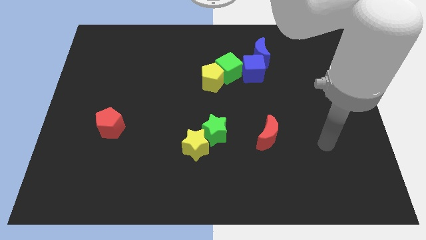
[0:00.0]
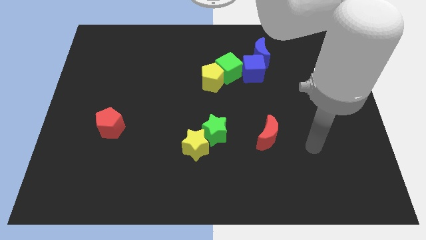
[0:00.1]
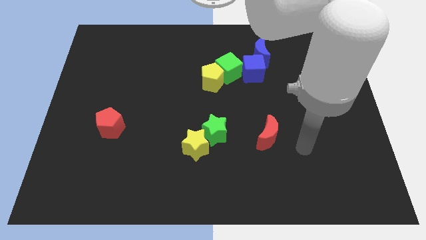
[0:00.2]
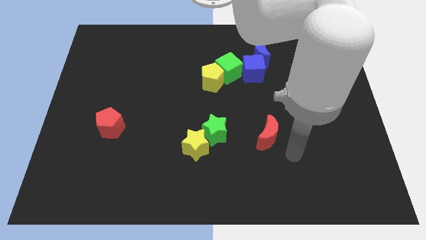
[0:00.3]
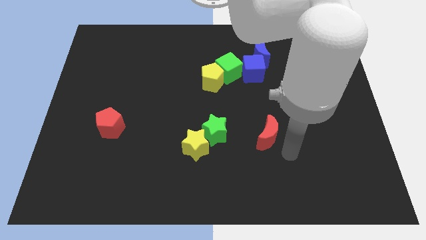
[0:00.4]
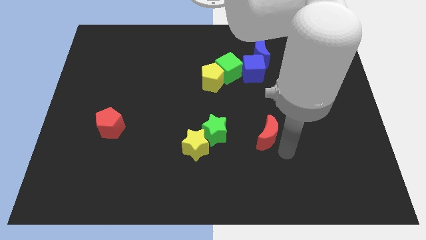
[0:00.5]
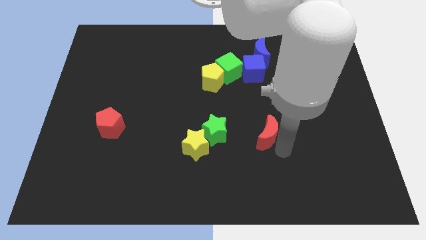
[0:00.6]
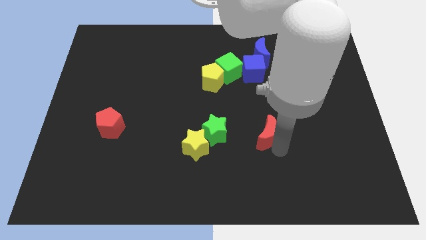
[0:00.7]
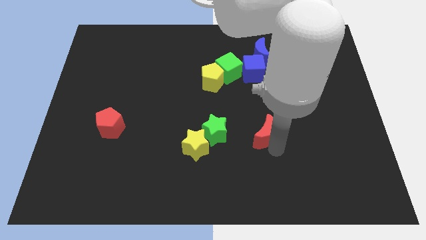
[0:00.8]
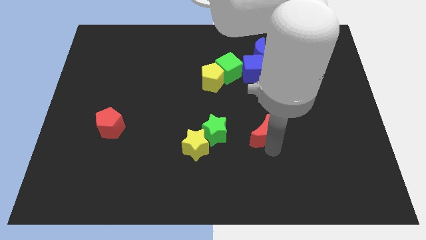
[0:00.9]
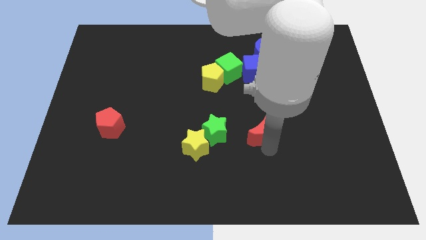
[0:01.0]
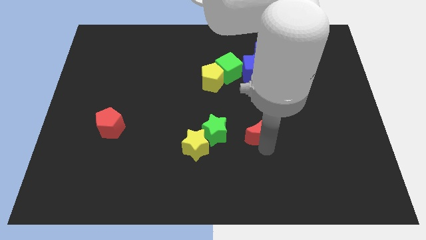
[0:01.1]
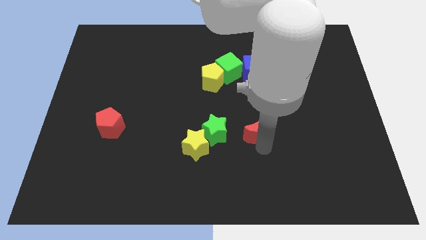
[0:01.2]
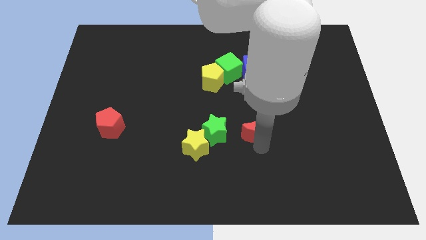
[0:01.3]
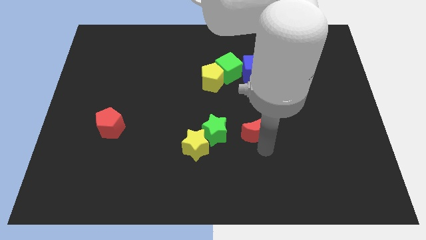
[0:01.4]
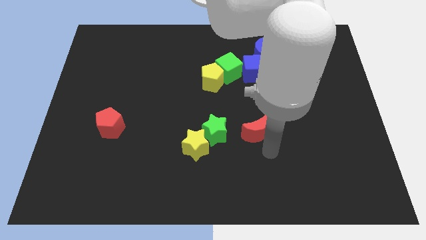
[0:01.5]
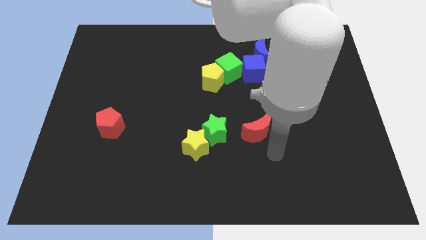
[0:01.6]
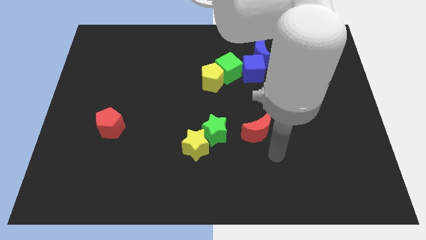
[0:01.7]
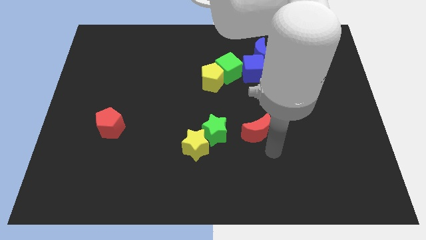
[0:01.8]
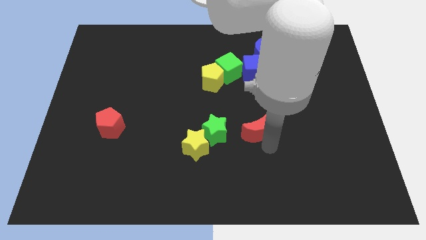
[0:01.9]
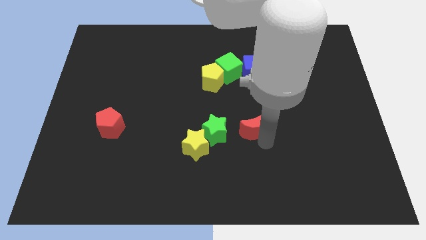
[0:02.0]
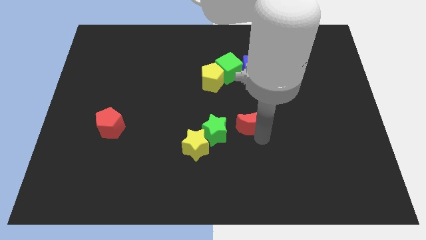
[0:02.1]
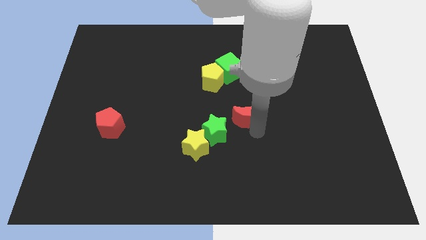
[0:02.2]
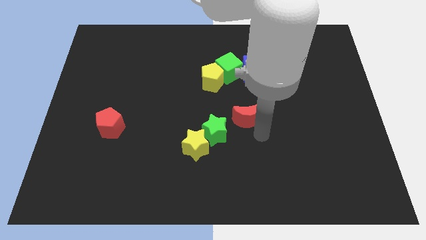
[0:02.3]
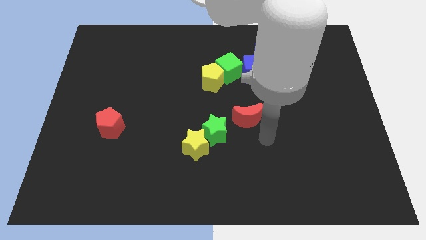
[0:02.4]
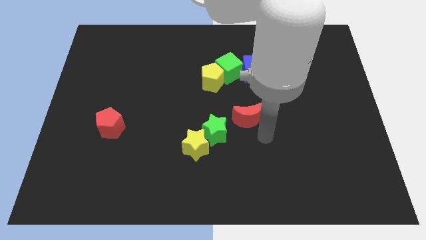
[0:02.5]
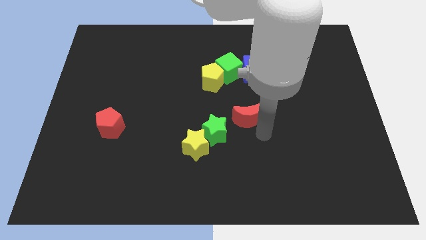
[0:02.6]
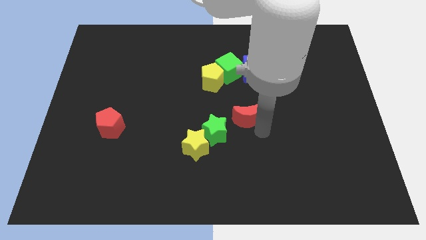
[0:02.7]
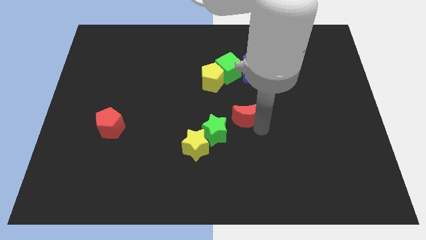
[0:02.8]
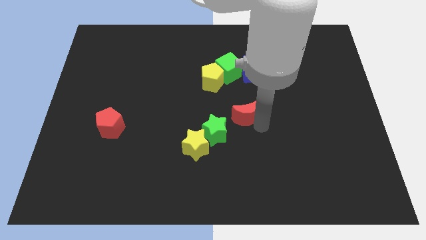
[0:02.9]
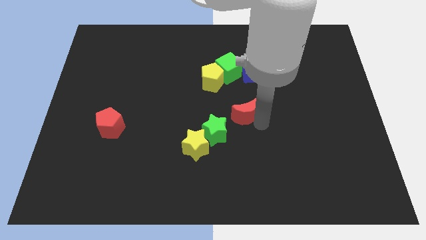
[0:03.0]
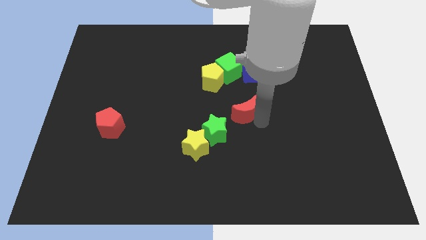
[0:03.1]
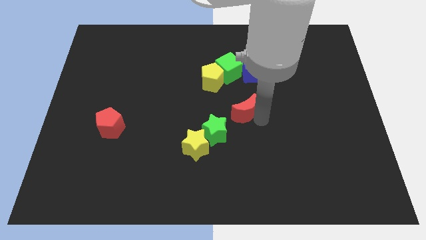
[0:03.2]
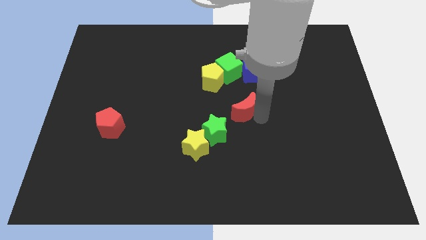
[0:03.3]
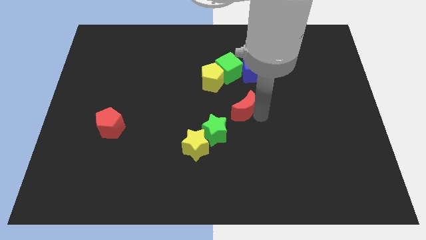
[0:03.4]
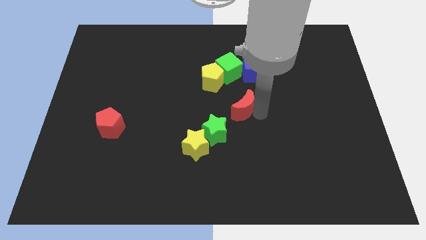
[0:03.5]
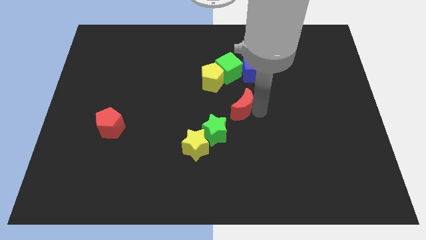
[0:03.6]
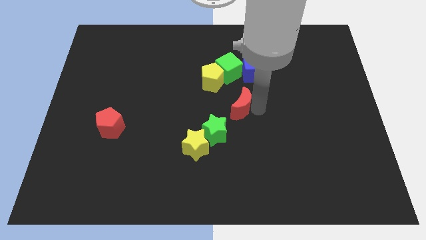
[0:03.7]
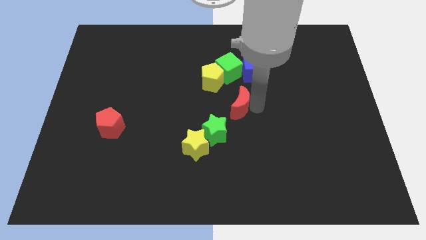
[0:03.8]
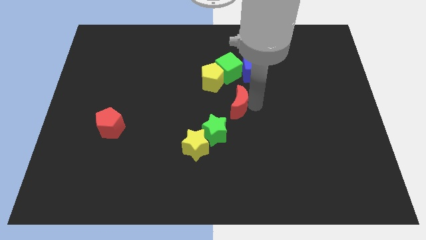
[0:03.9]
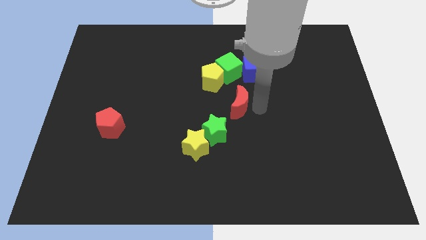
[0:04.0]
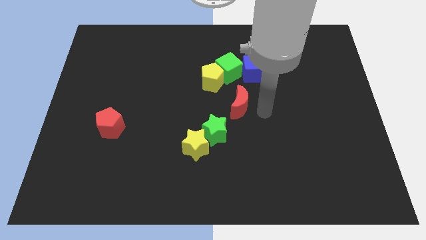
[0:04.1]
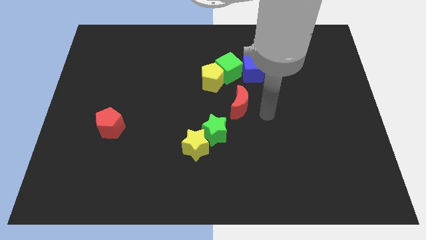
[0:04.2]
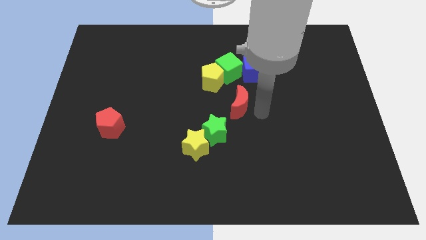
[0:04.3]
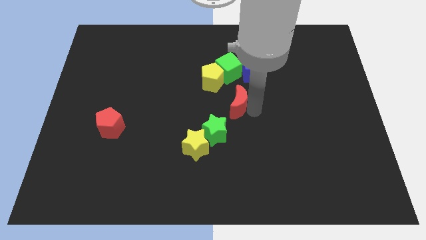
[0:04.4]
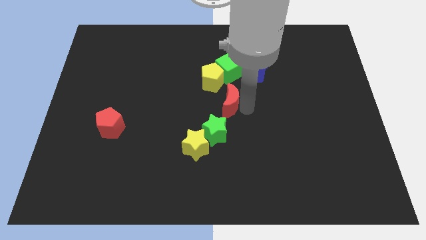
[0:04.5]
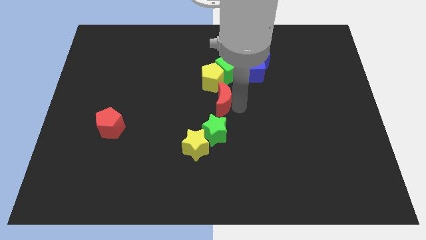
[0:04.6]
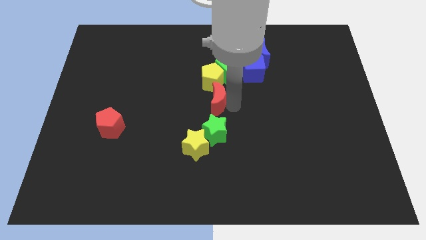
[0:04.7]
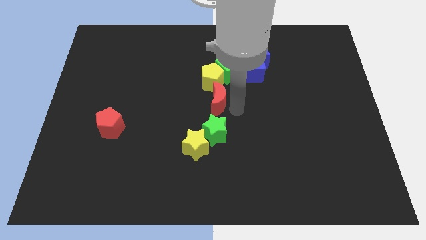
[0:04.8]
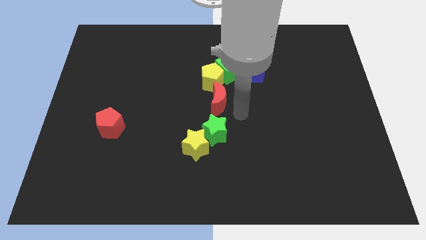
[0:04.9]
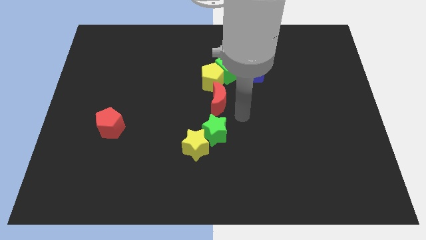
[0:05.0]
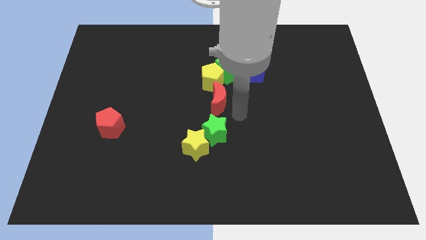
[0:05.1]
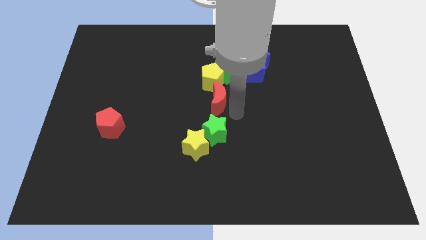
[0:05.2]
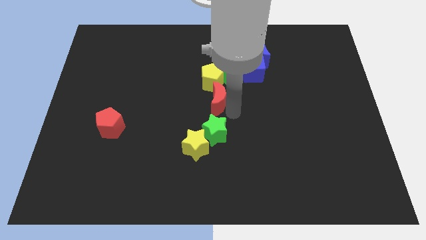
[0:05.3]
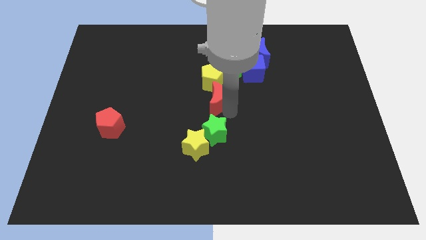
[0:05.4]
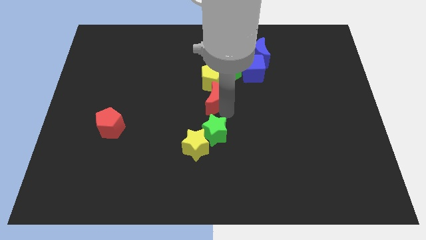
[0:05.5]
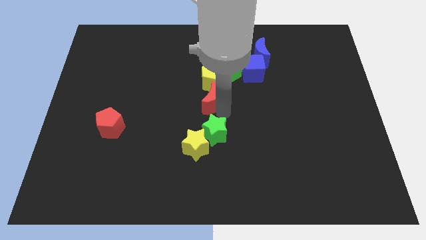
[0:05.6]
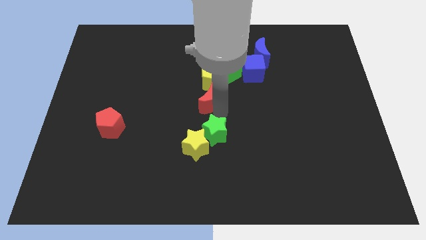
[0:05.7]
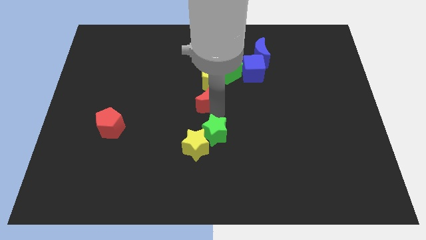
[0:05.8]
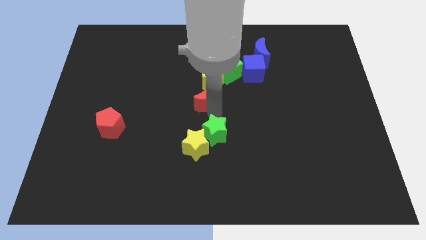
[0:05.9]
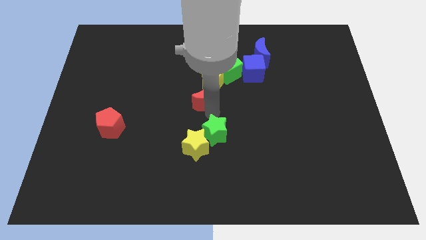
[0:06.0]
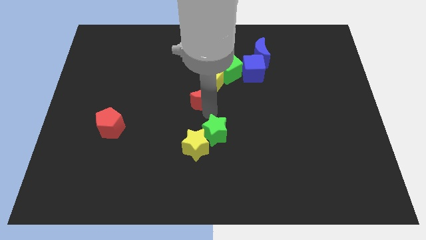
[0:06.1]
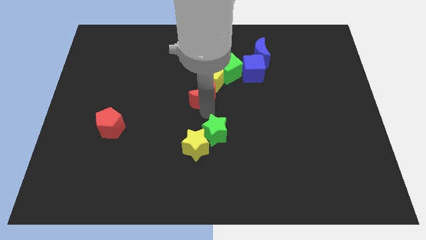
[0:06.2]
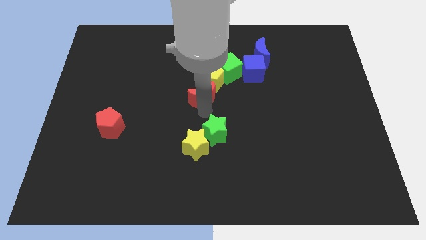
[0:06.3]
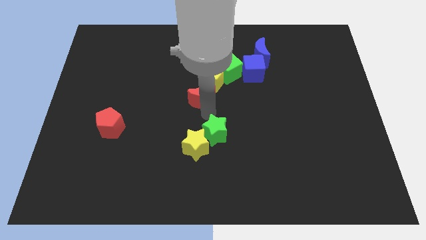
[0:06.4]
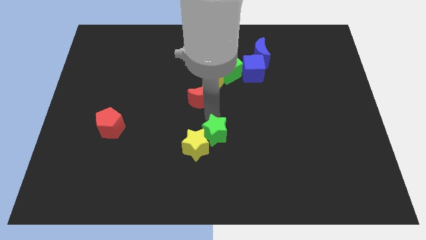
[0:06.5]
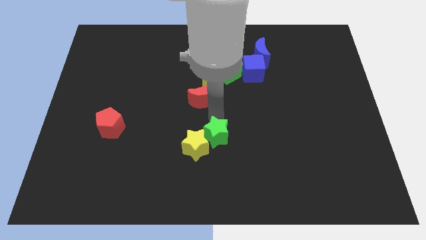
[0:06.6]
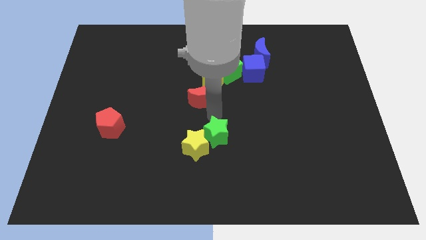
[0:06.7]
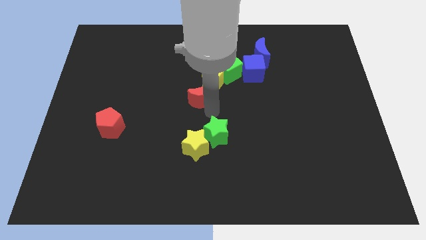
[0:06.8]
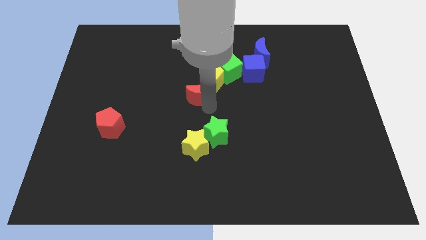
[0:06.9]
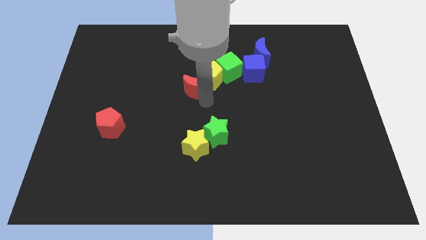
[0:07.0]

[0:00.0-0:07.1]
move the red moon diagonally up and to the left

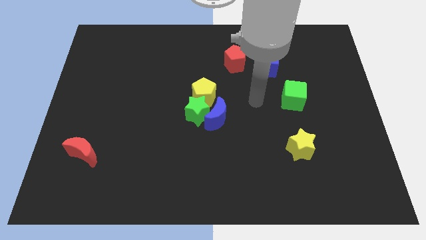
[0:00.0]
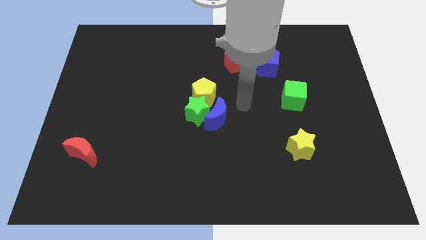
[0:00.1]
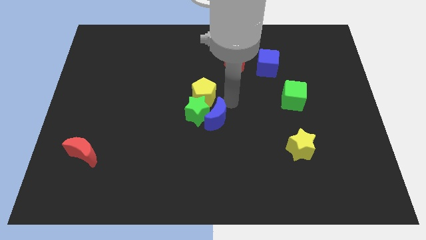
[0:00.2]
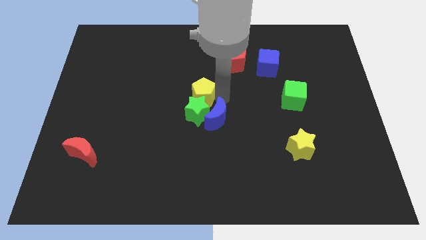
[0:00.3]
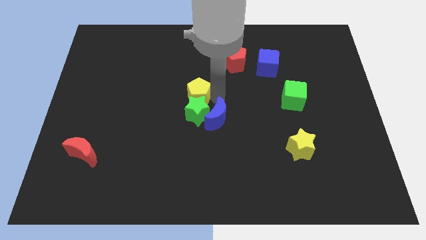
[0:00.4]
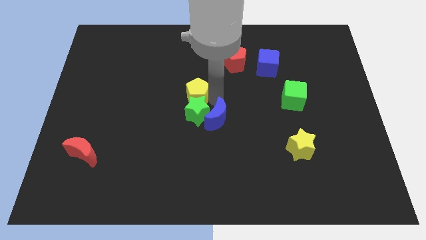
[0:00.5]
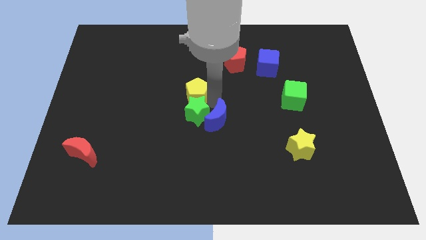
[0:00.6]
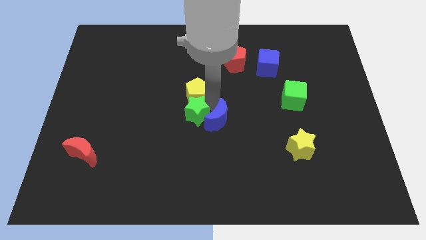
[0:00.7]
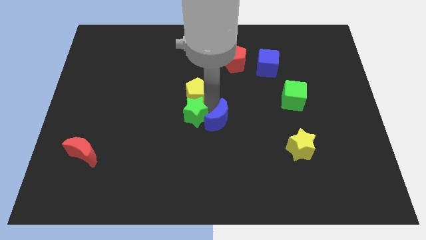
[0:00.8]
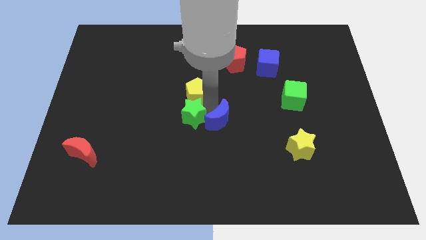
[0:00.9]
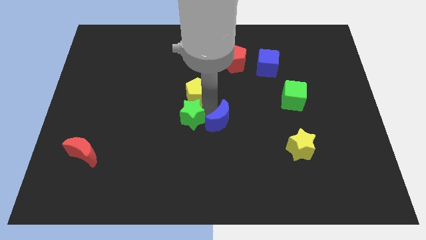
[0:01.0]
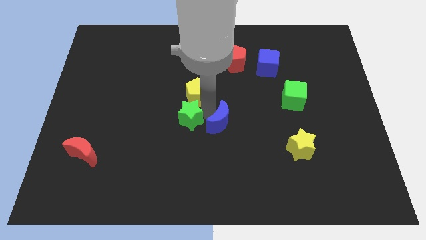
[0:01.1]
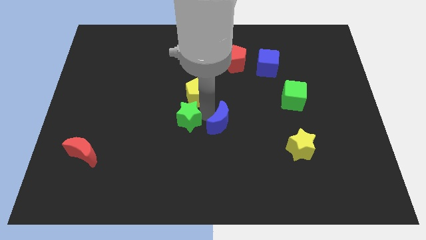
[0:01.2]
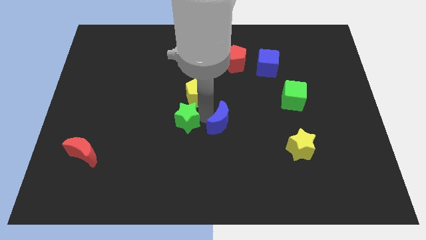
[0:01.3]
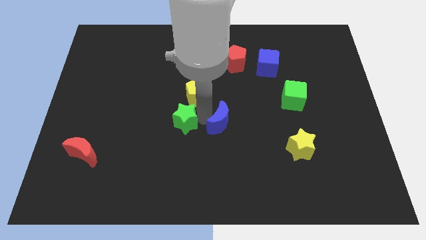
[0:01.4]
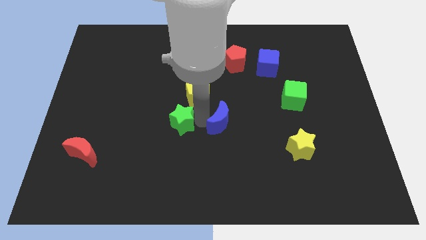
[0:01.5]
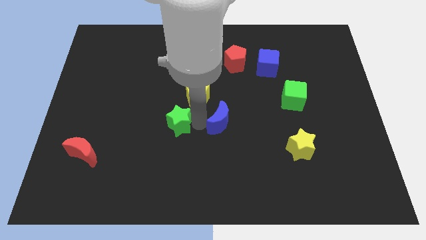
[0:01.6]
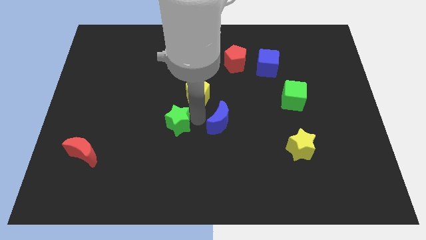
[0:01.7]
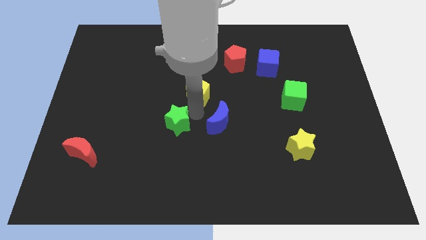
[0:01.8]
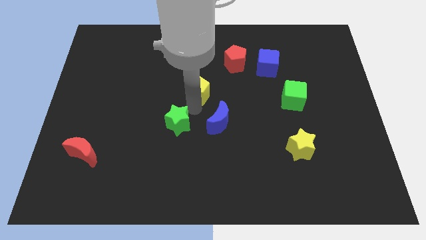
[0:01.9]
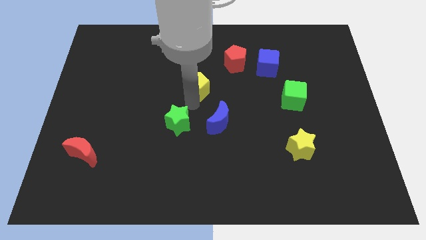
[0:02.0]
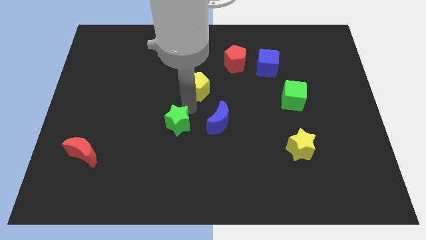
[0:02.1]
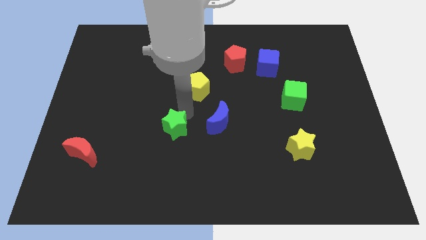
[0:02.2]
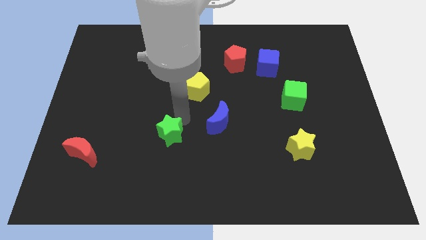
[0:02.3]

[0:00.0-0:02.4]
slide the green star slightly downwards and left diagonally
